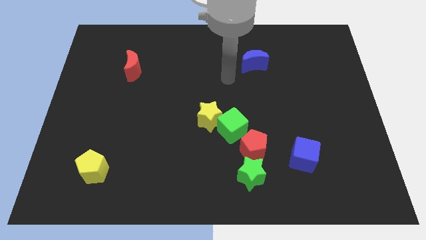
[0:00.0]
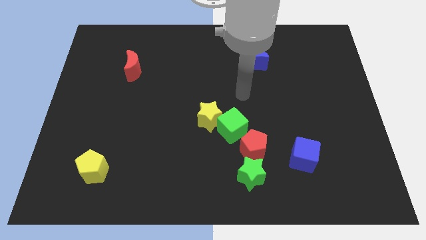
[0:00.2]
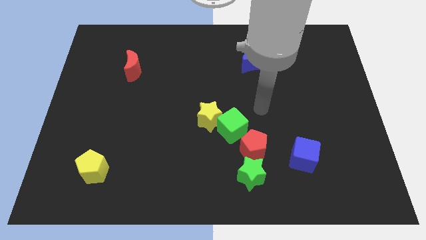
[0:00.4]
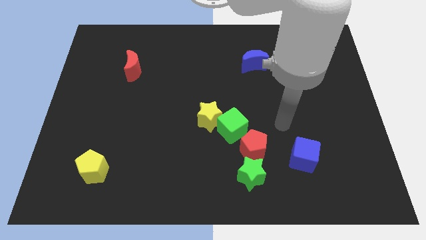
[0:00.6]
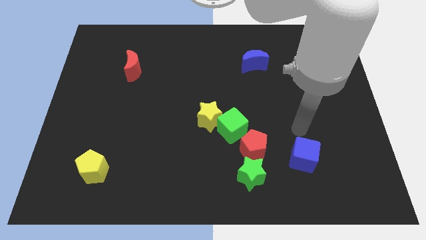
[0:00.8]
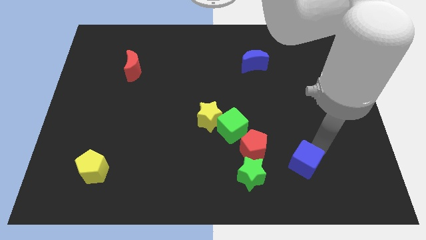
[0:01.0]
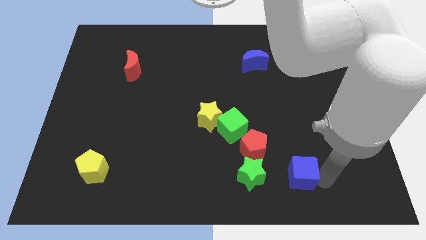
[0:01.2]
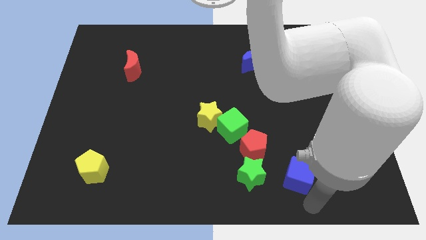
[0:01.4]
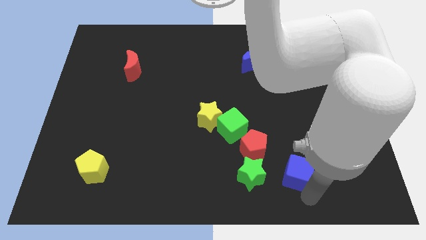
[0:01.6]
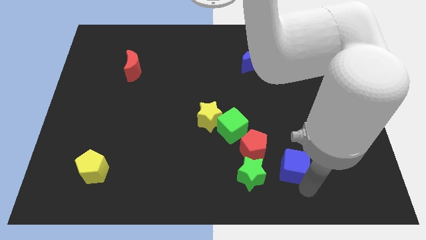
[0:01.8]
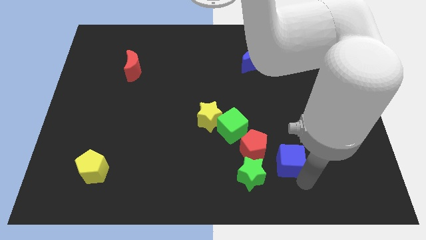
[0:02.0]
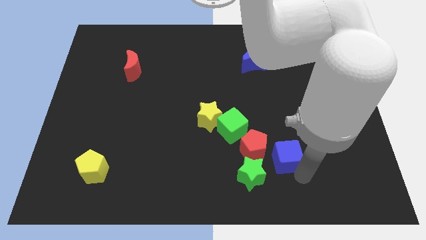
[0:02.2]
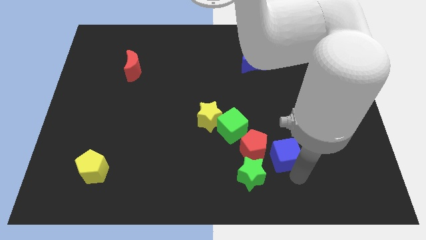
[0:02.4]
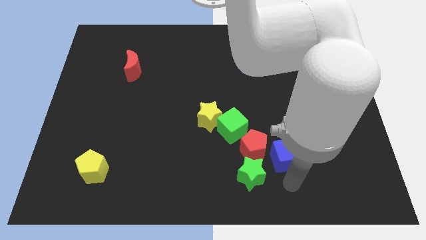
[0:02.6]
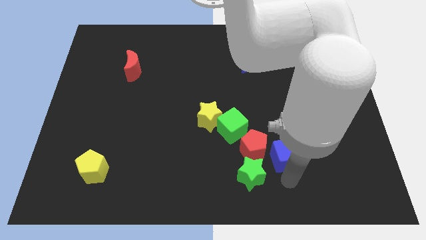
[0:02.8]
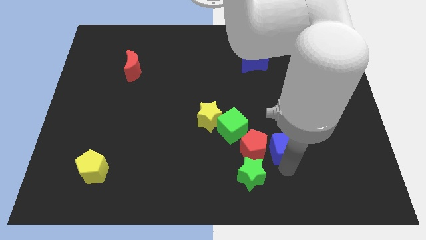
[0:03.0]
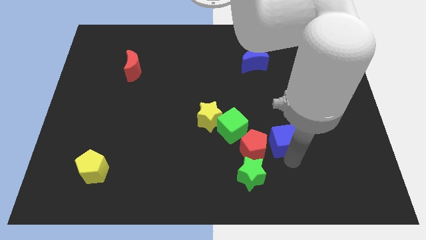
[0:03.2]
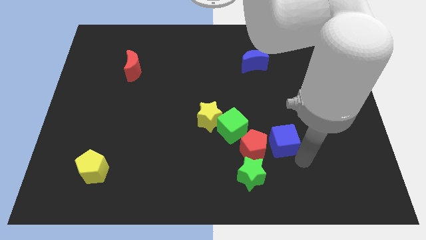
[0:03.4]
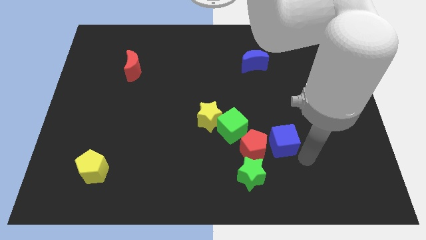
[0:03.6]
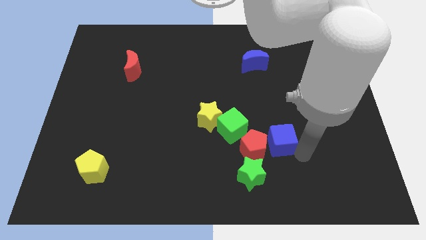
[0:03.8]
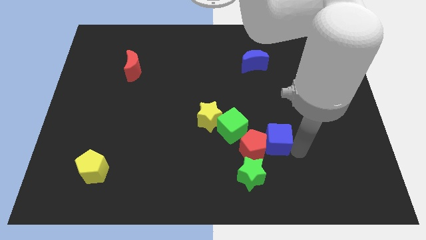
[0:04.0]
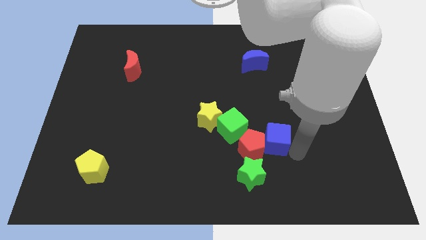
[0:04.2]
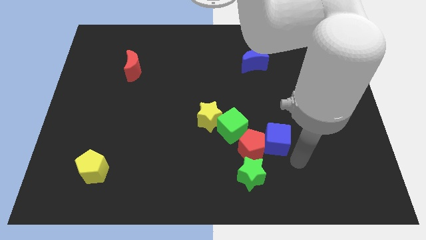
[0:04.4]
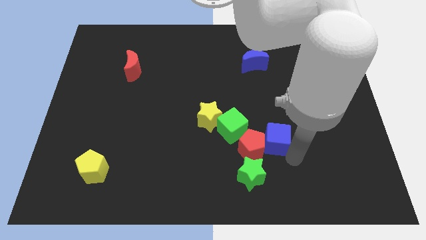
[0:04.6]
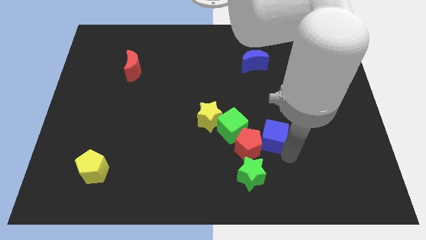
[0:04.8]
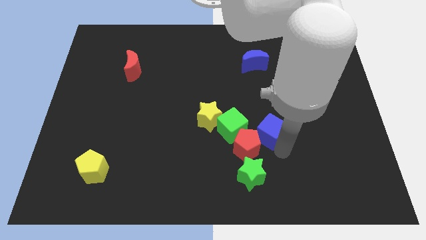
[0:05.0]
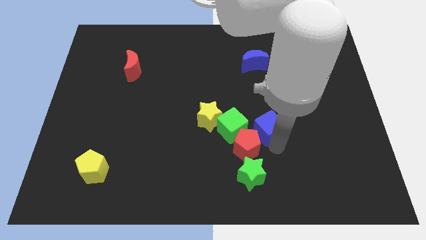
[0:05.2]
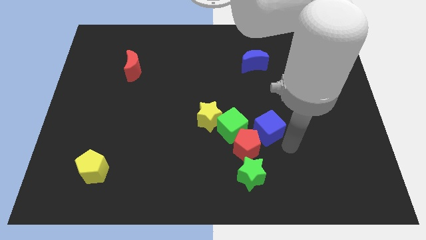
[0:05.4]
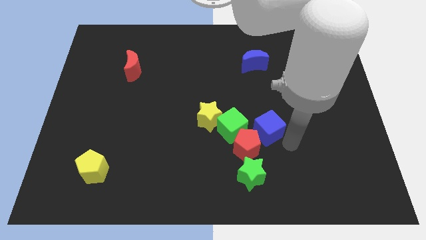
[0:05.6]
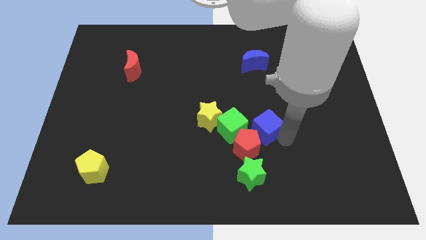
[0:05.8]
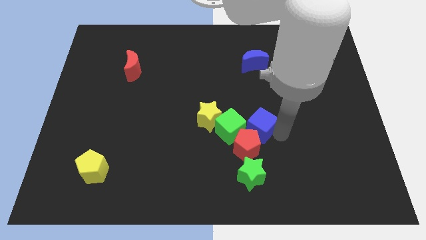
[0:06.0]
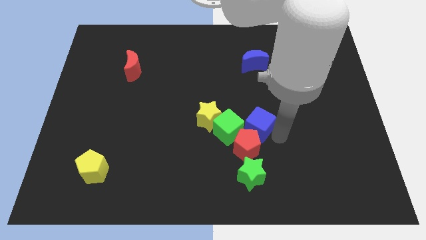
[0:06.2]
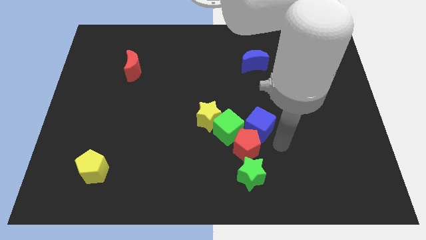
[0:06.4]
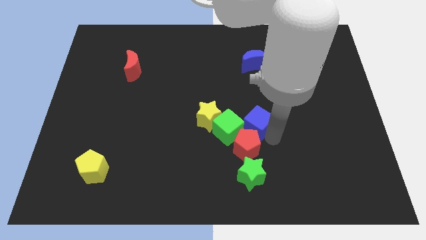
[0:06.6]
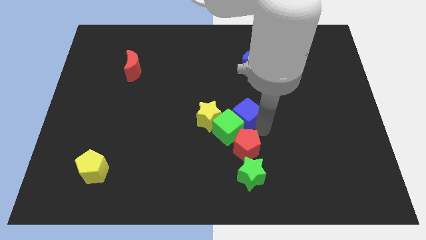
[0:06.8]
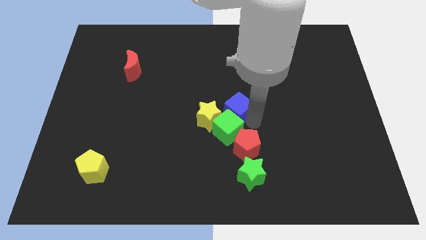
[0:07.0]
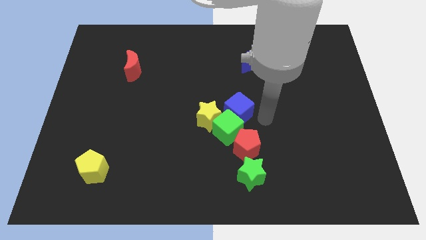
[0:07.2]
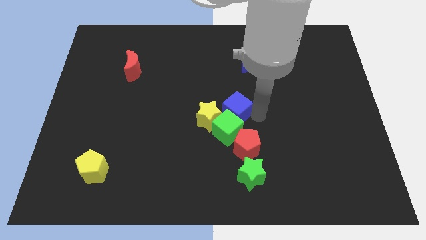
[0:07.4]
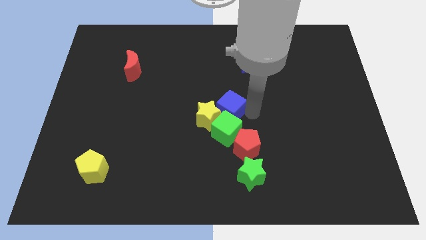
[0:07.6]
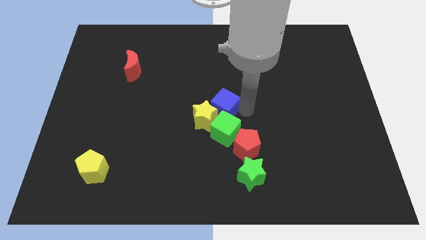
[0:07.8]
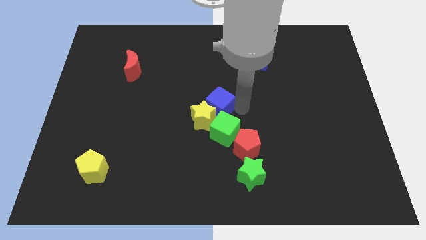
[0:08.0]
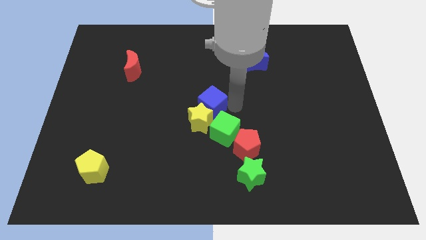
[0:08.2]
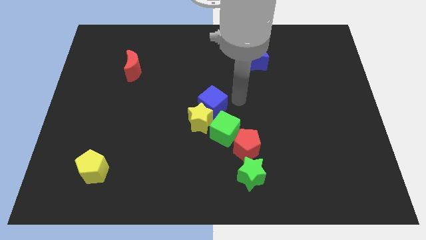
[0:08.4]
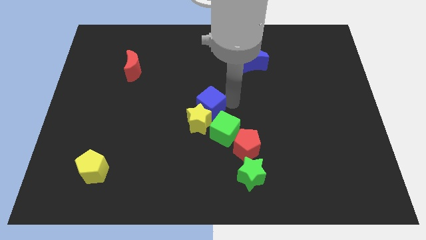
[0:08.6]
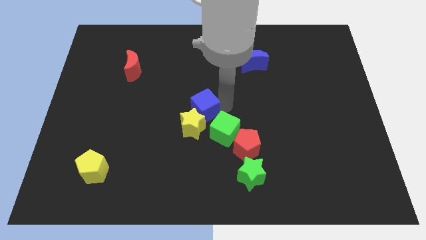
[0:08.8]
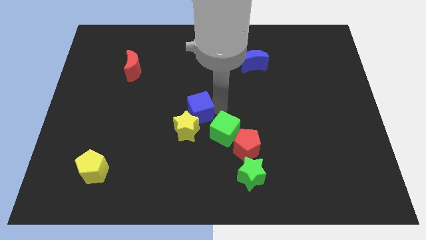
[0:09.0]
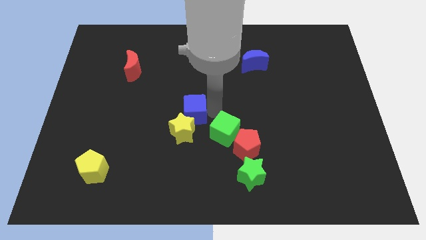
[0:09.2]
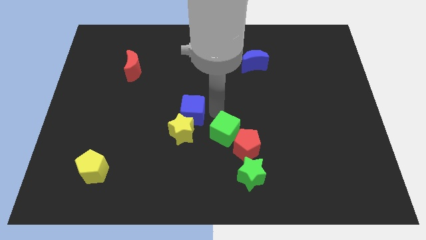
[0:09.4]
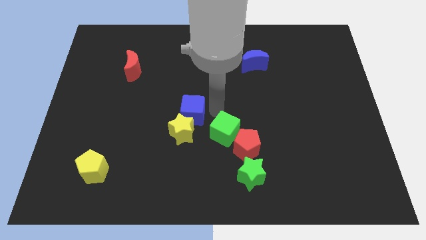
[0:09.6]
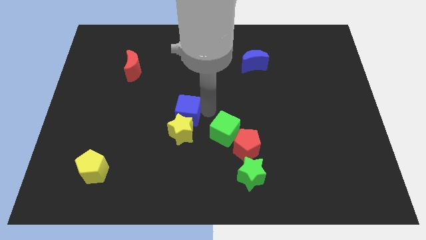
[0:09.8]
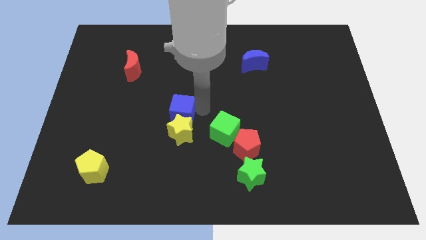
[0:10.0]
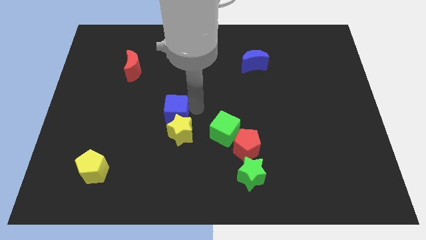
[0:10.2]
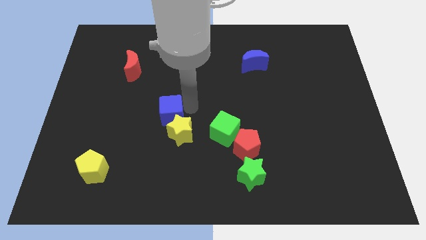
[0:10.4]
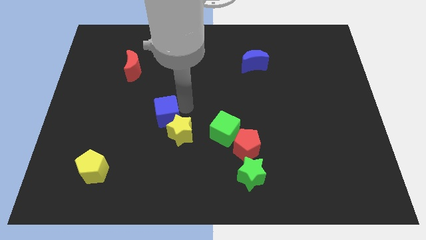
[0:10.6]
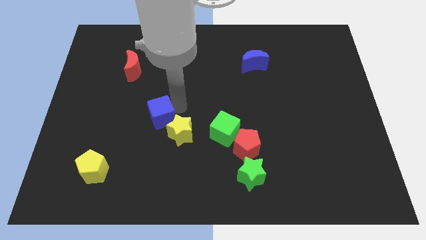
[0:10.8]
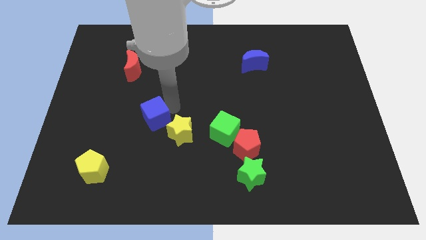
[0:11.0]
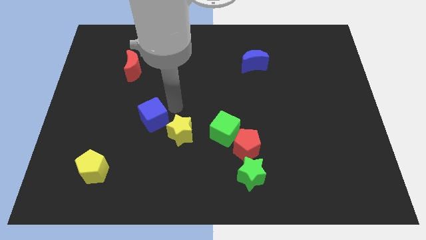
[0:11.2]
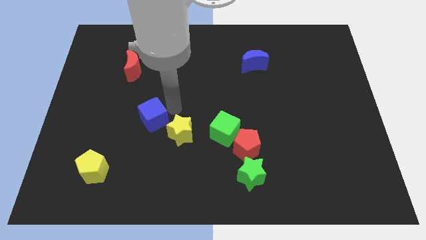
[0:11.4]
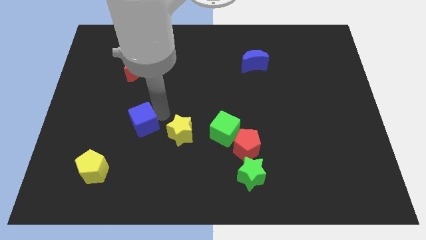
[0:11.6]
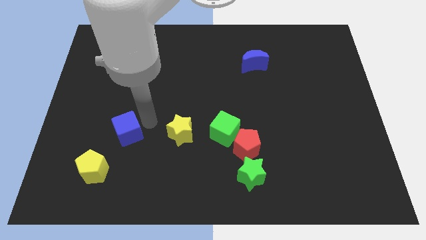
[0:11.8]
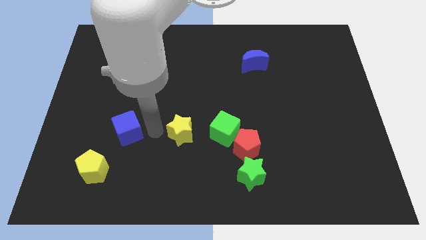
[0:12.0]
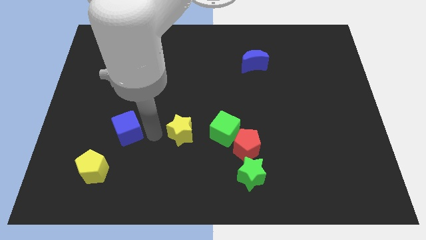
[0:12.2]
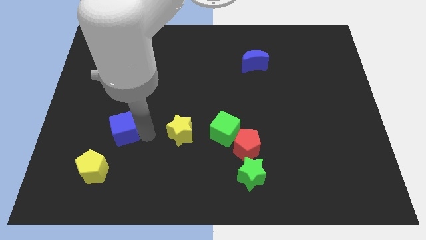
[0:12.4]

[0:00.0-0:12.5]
slide the blue cube above the yellow pentagon

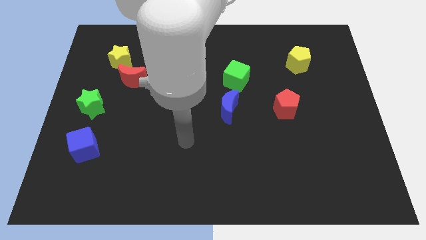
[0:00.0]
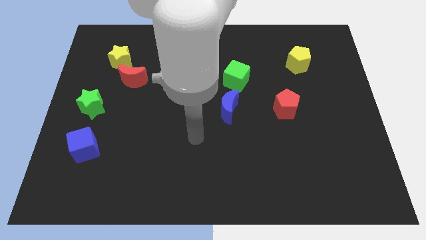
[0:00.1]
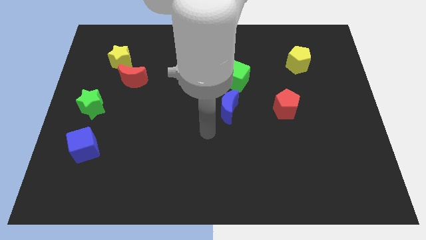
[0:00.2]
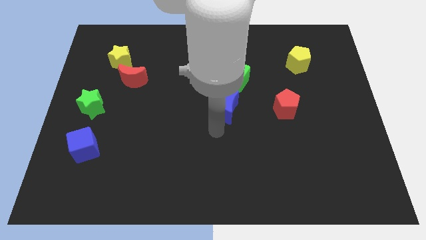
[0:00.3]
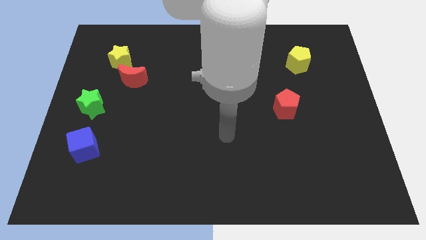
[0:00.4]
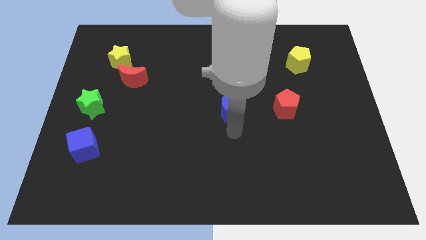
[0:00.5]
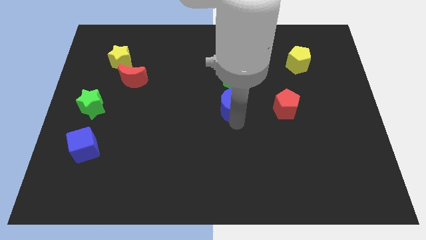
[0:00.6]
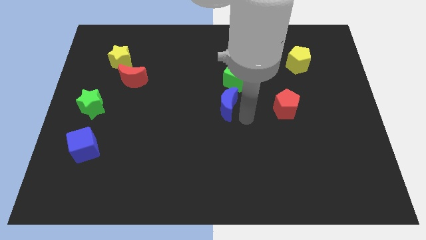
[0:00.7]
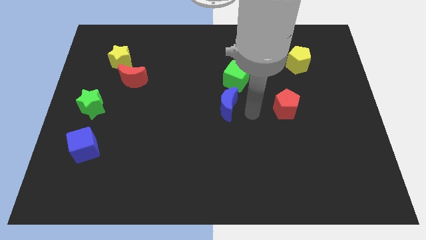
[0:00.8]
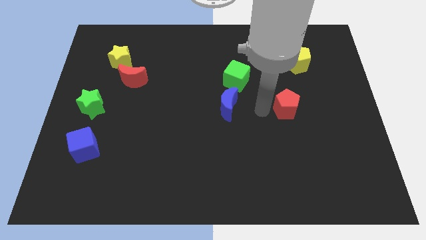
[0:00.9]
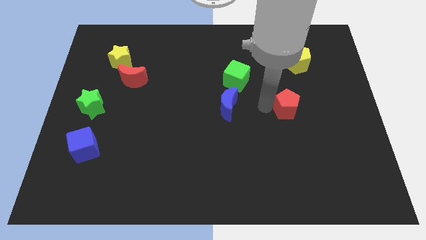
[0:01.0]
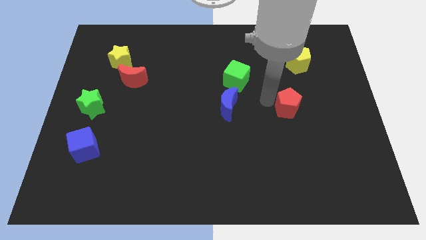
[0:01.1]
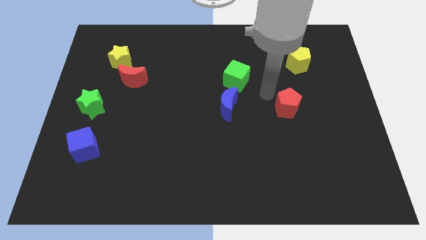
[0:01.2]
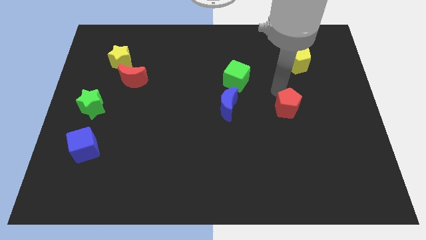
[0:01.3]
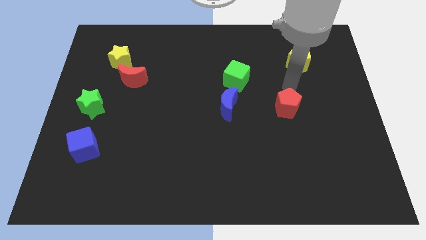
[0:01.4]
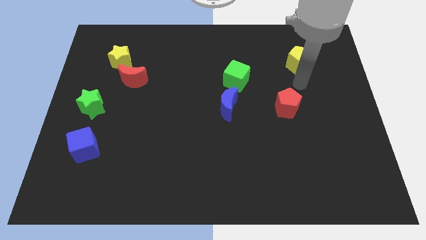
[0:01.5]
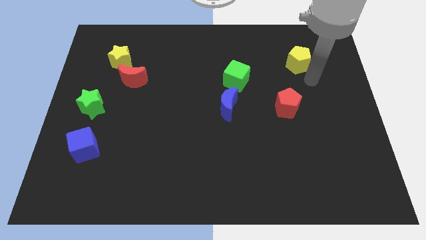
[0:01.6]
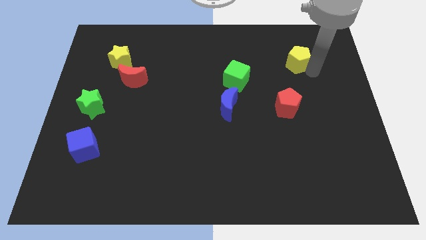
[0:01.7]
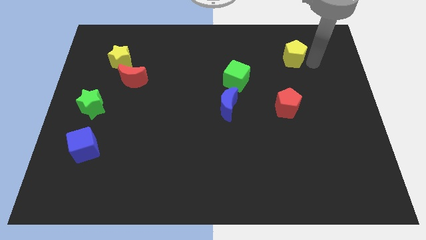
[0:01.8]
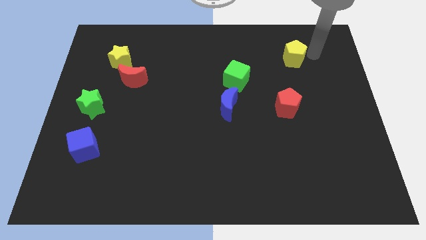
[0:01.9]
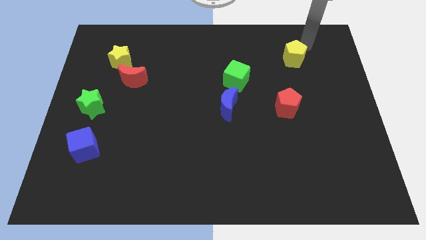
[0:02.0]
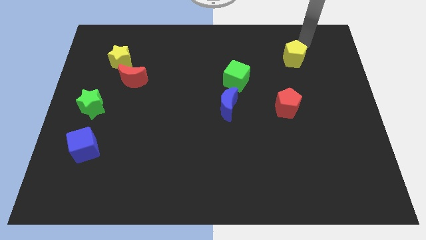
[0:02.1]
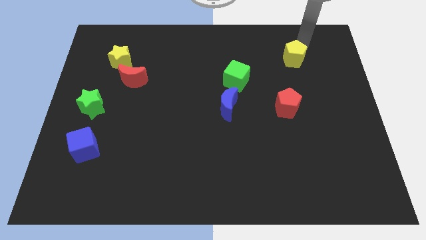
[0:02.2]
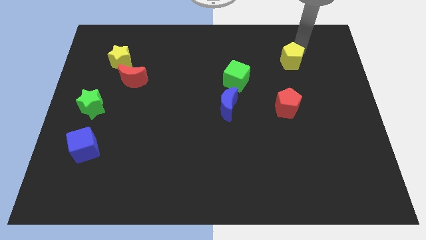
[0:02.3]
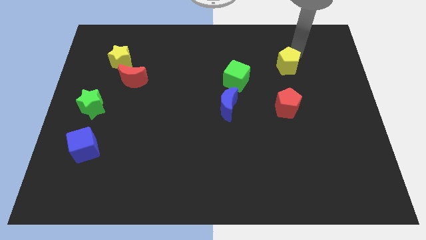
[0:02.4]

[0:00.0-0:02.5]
put the yellow pentagon to the top of the red pentagon
